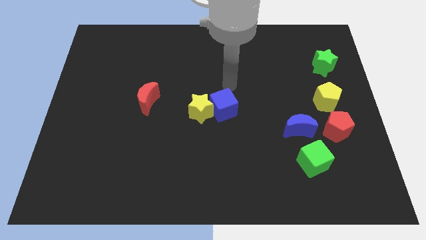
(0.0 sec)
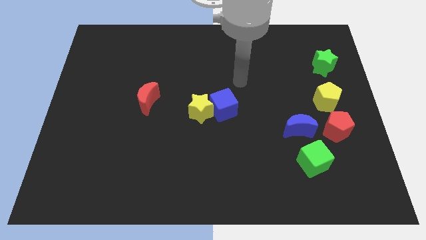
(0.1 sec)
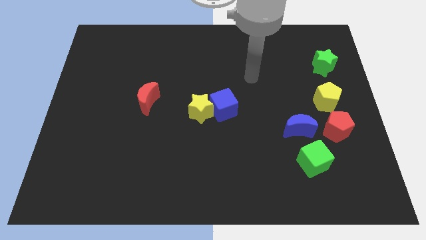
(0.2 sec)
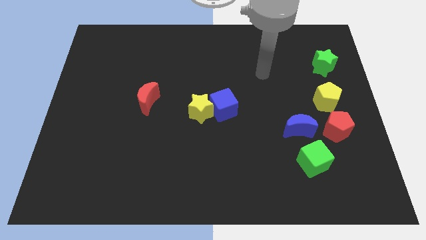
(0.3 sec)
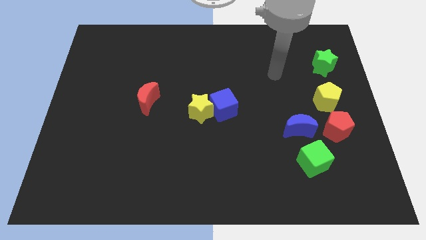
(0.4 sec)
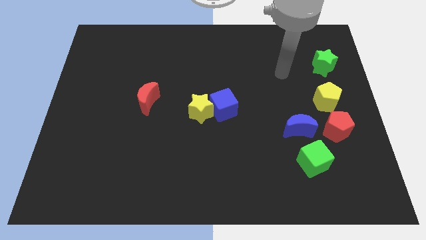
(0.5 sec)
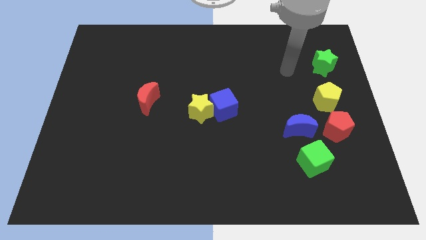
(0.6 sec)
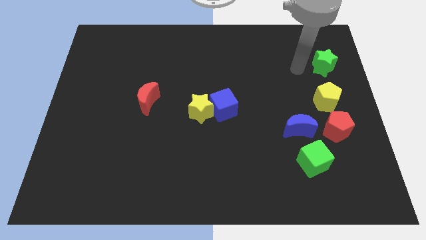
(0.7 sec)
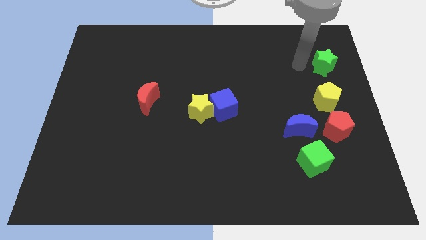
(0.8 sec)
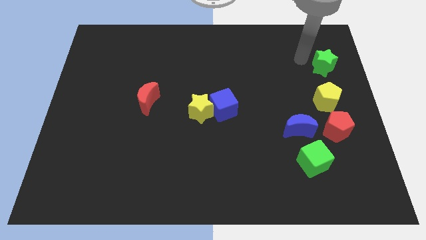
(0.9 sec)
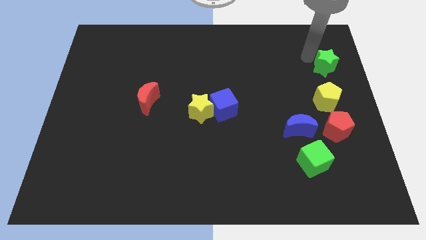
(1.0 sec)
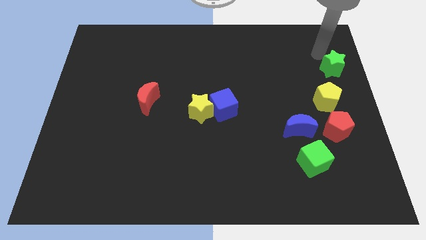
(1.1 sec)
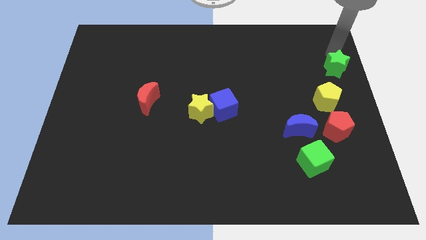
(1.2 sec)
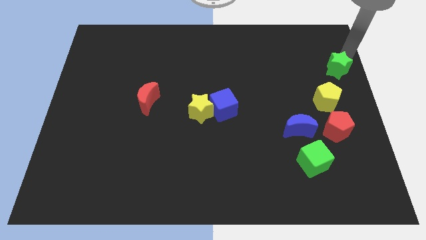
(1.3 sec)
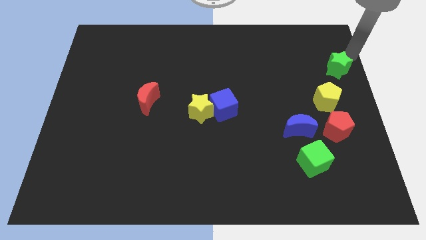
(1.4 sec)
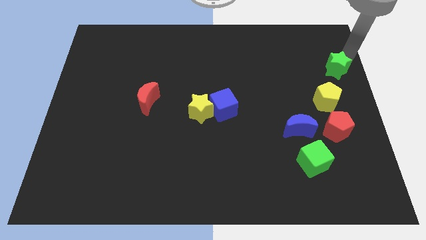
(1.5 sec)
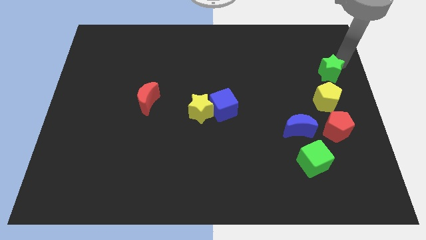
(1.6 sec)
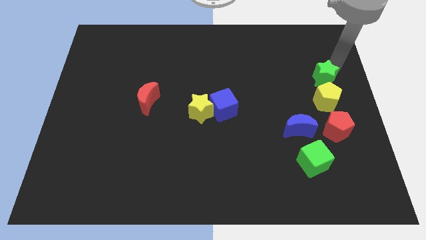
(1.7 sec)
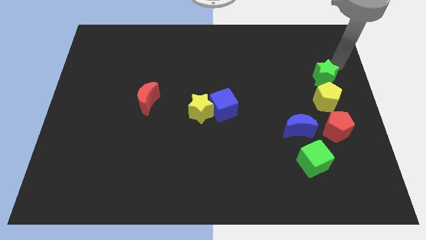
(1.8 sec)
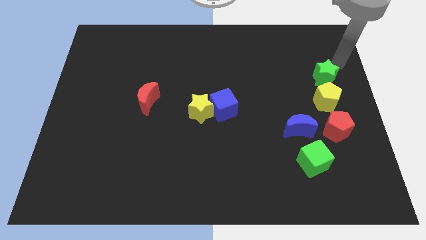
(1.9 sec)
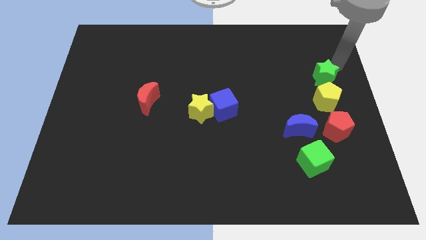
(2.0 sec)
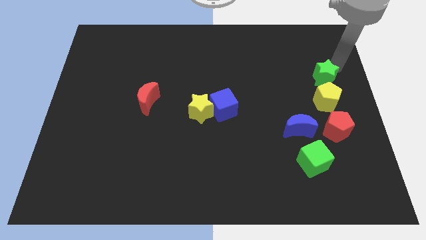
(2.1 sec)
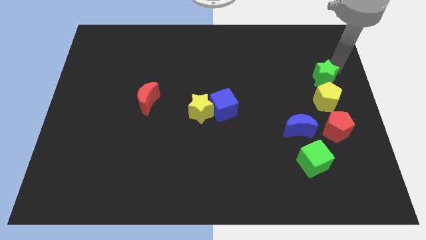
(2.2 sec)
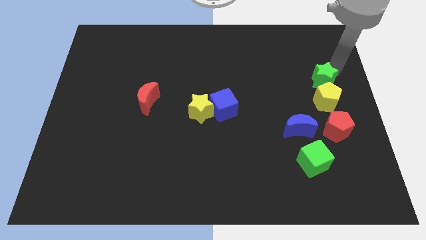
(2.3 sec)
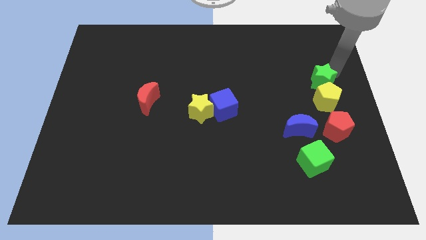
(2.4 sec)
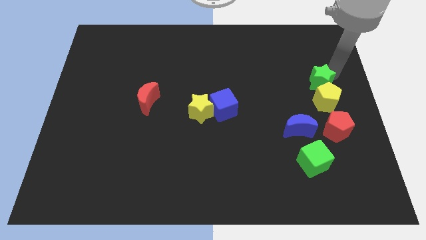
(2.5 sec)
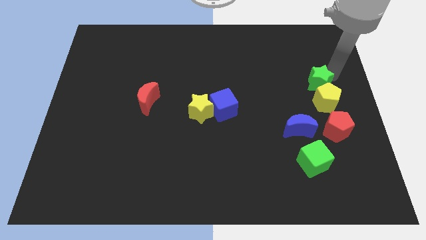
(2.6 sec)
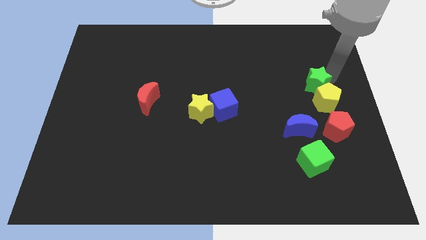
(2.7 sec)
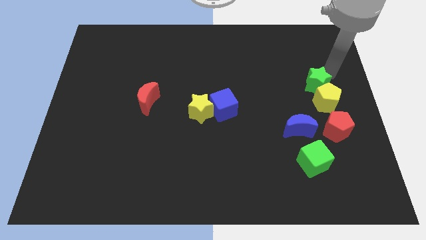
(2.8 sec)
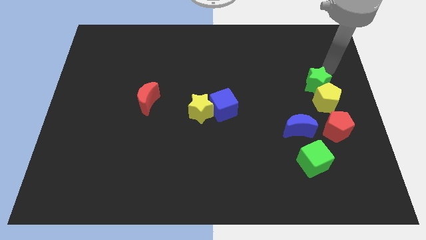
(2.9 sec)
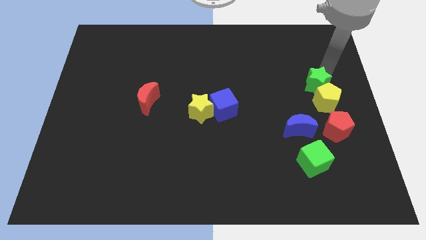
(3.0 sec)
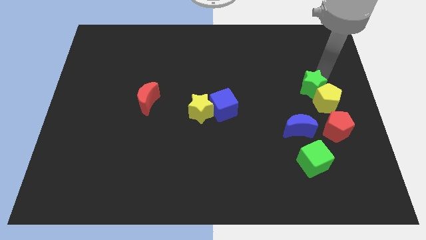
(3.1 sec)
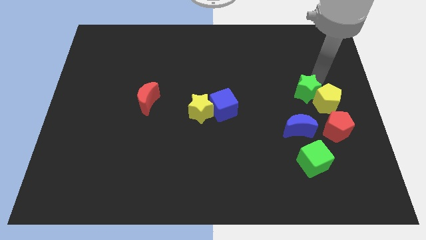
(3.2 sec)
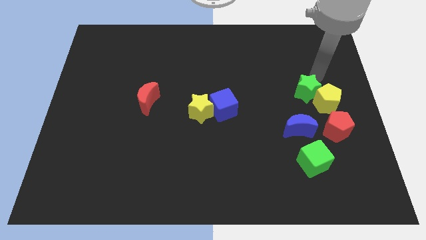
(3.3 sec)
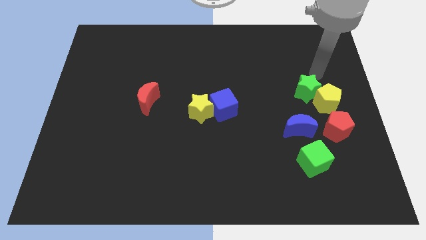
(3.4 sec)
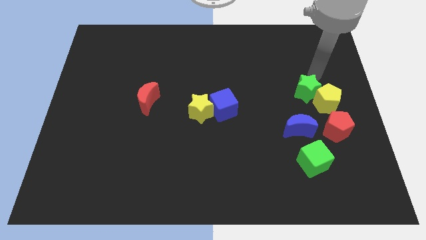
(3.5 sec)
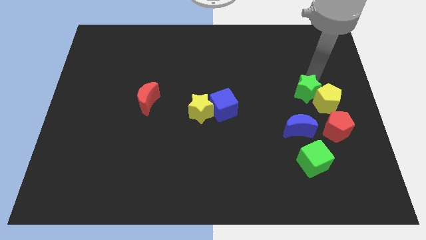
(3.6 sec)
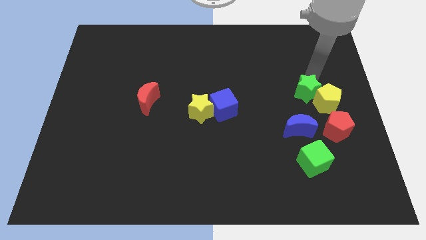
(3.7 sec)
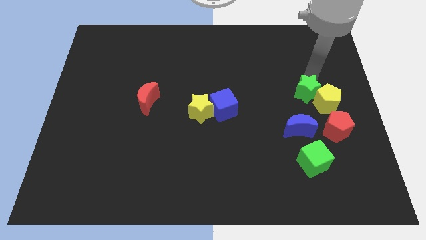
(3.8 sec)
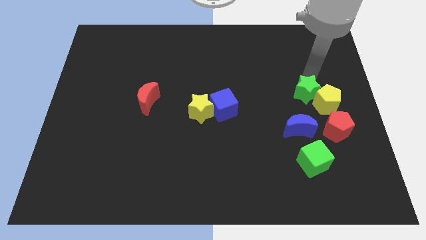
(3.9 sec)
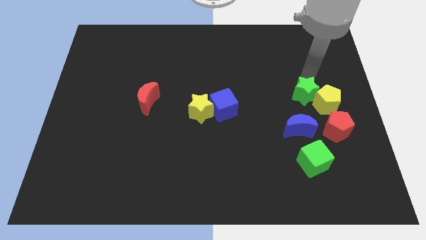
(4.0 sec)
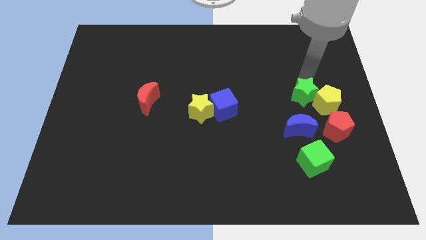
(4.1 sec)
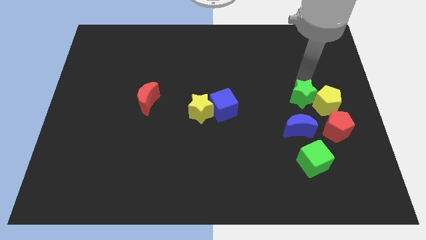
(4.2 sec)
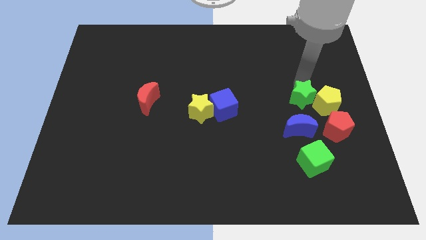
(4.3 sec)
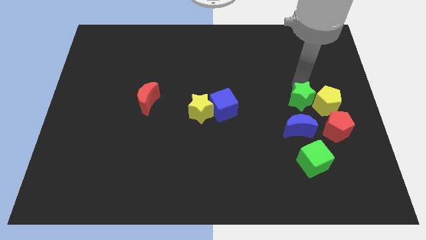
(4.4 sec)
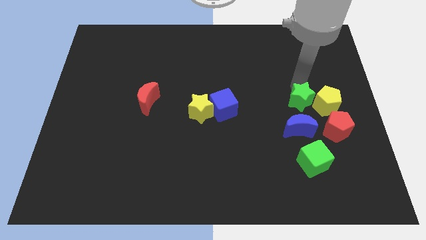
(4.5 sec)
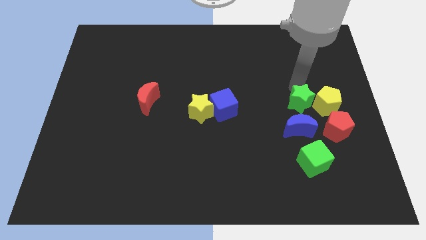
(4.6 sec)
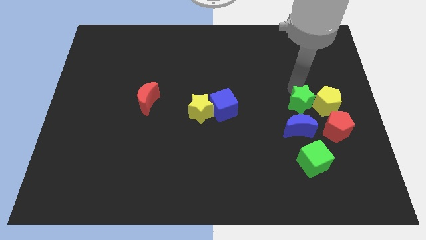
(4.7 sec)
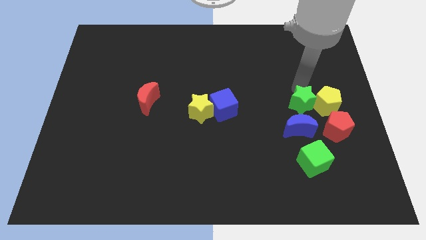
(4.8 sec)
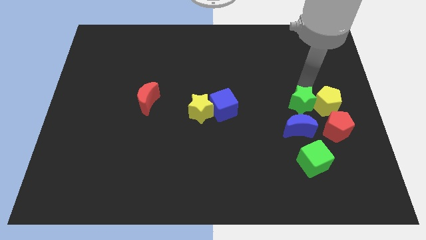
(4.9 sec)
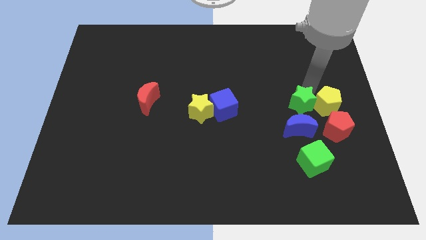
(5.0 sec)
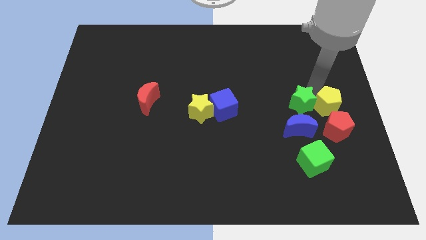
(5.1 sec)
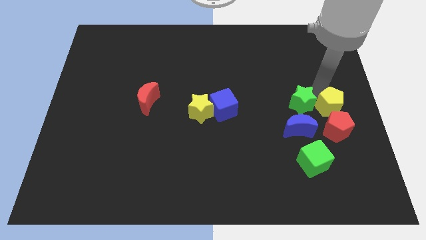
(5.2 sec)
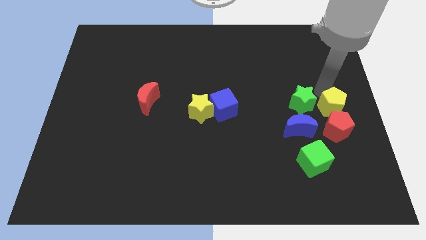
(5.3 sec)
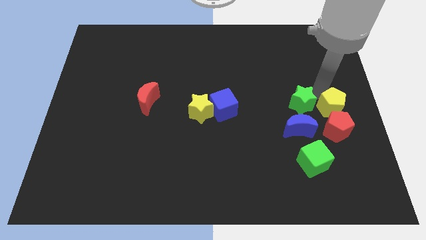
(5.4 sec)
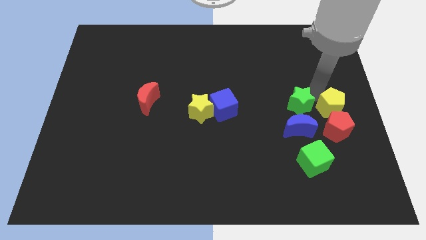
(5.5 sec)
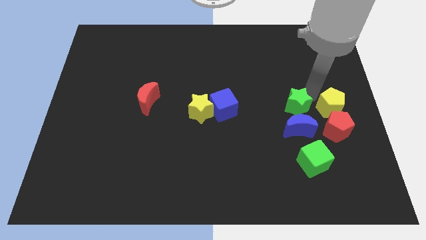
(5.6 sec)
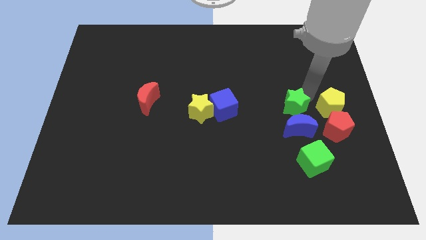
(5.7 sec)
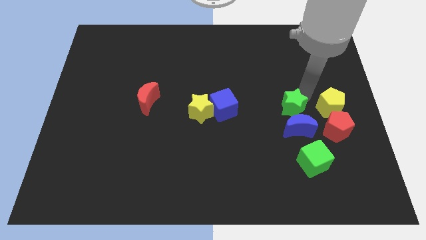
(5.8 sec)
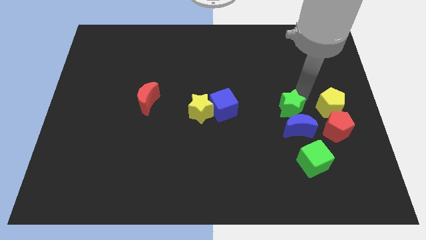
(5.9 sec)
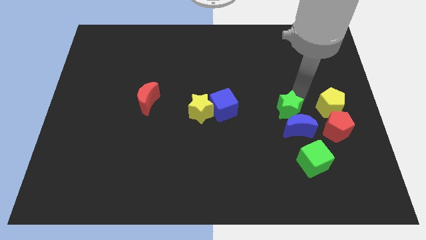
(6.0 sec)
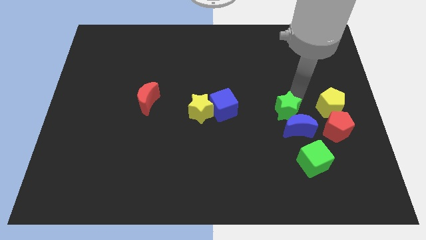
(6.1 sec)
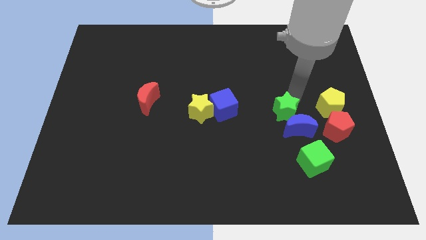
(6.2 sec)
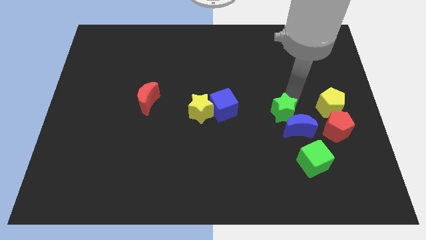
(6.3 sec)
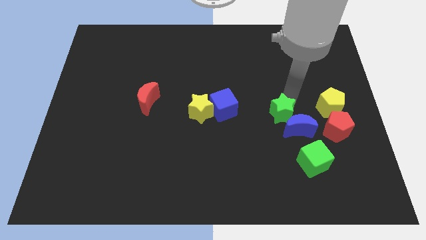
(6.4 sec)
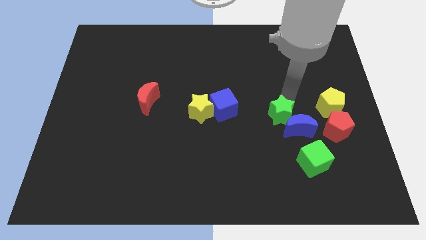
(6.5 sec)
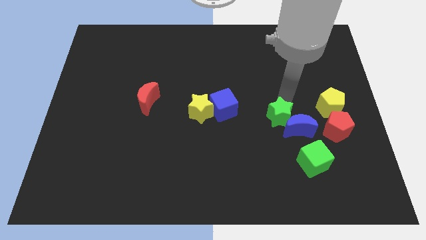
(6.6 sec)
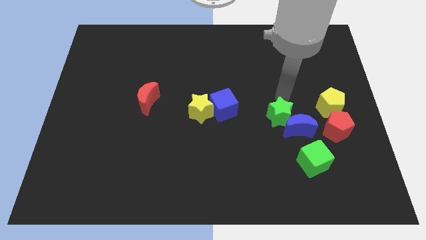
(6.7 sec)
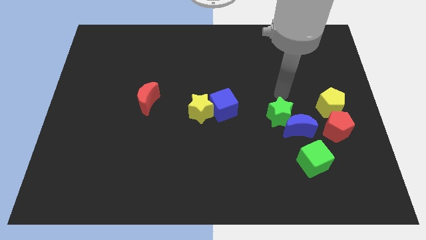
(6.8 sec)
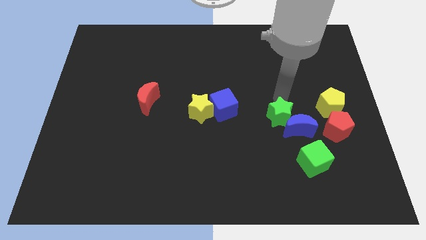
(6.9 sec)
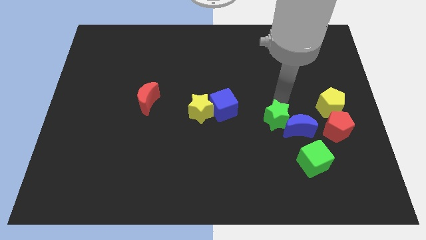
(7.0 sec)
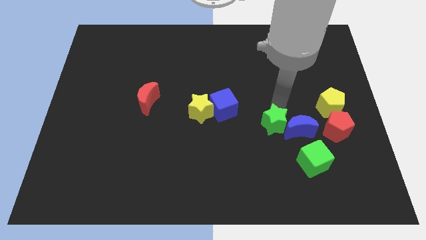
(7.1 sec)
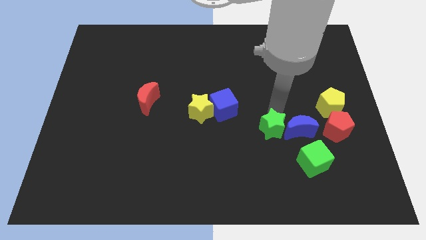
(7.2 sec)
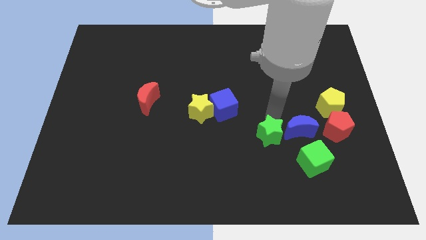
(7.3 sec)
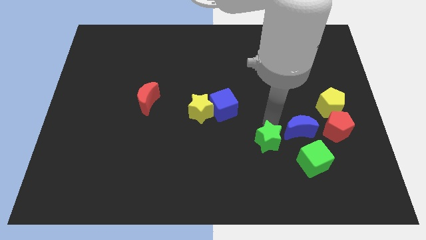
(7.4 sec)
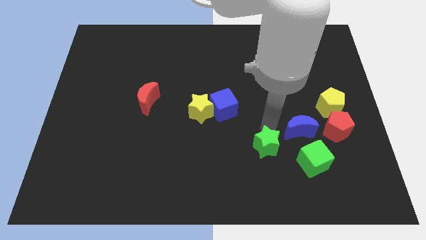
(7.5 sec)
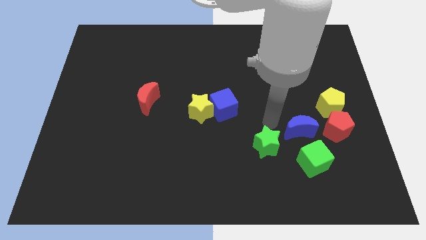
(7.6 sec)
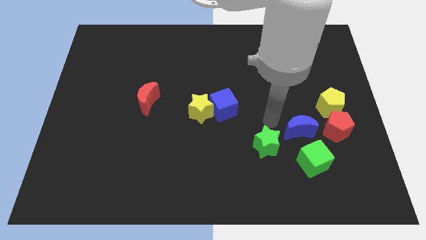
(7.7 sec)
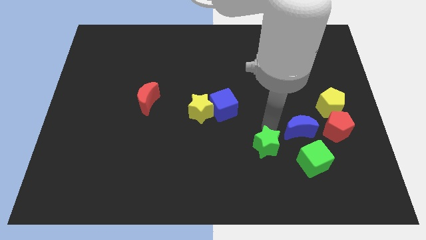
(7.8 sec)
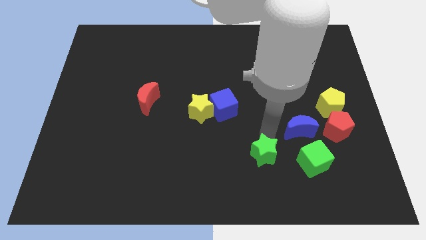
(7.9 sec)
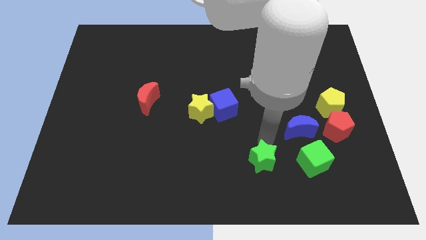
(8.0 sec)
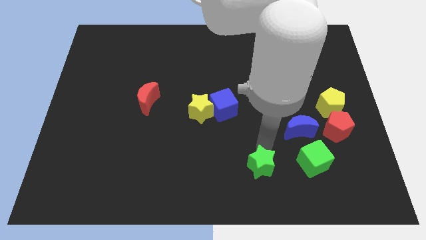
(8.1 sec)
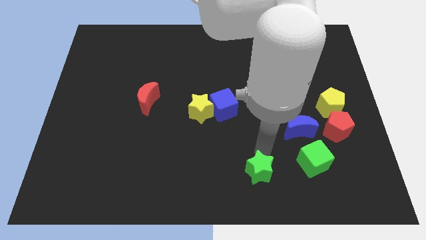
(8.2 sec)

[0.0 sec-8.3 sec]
push the green star to the bottom side
